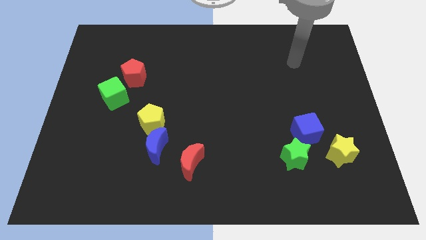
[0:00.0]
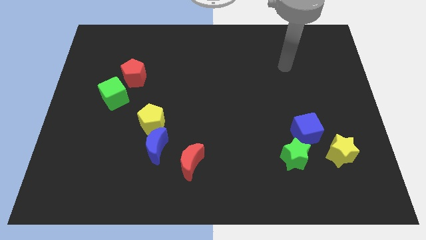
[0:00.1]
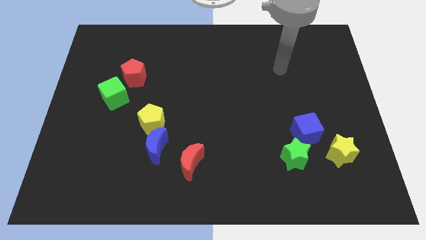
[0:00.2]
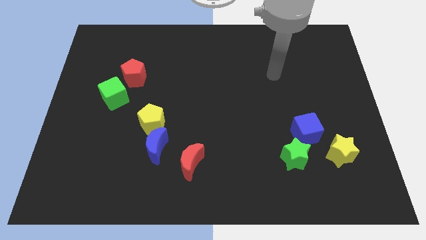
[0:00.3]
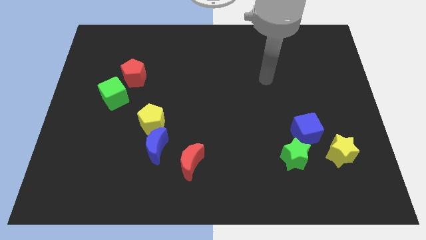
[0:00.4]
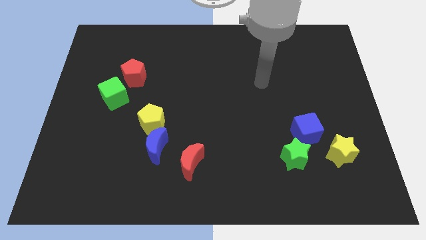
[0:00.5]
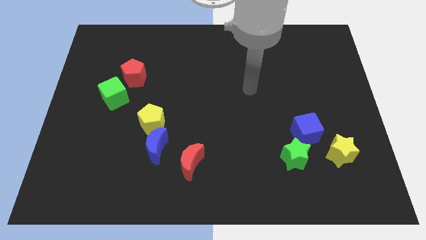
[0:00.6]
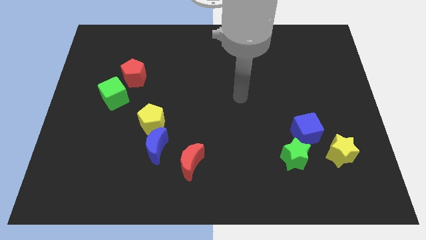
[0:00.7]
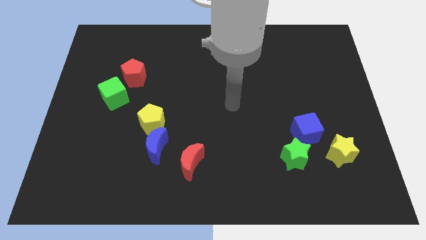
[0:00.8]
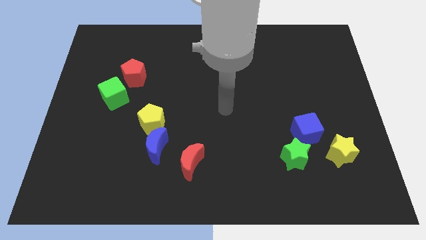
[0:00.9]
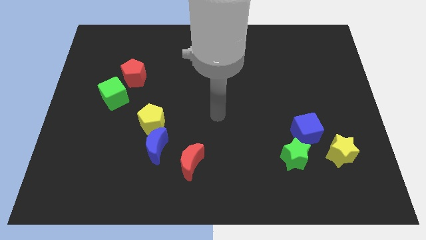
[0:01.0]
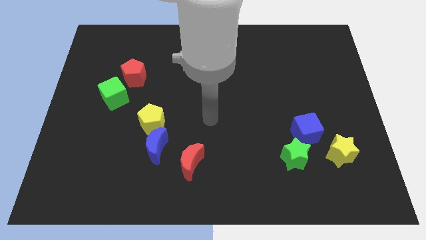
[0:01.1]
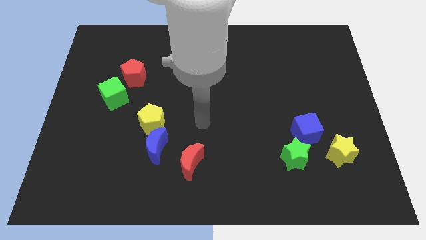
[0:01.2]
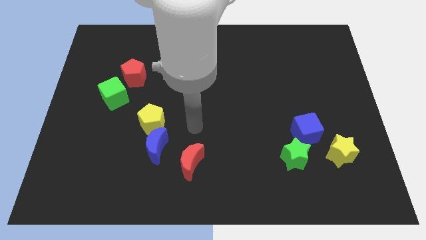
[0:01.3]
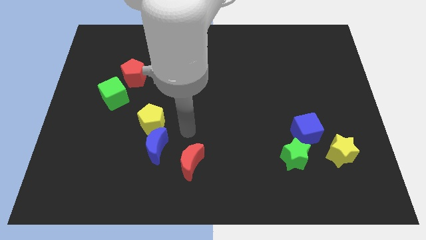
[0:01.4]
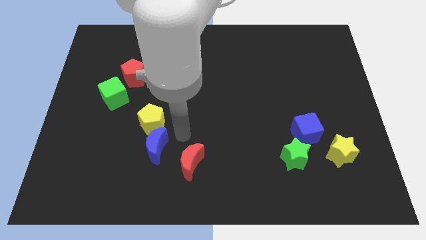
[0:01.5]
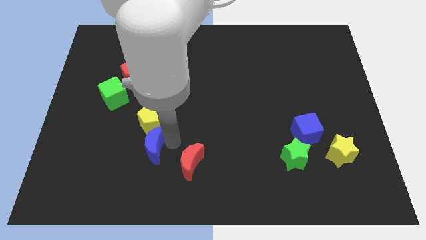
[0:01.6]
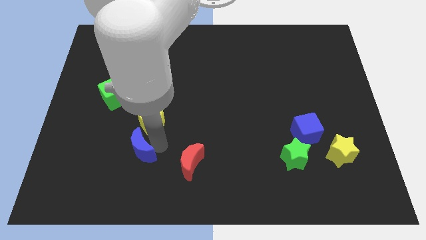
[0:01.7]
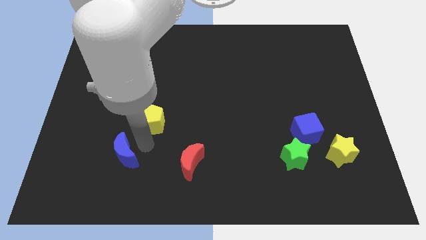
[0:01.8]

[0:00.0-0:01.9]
separate the yellow pentagon from the blue moon

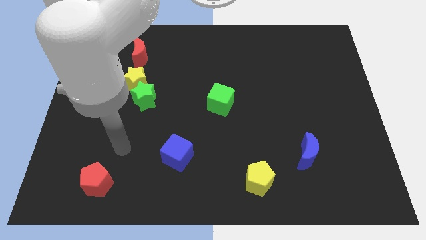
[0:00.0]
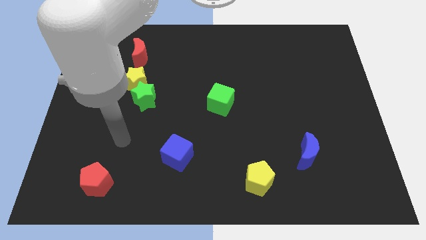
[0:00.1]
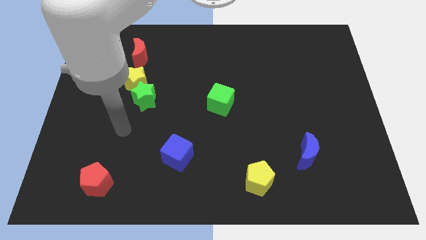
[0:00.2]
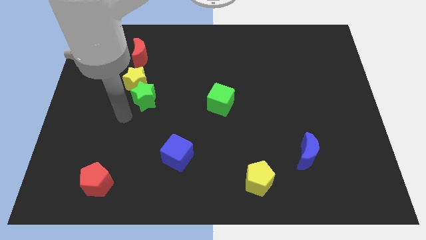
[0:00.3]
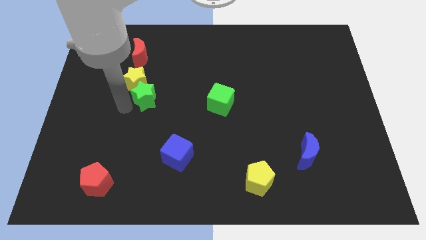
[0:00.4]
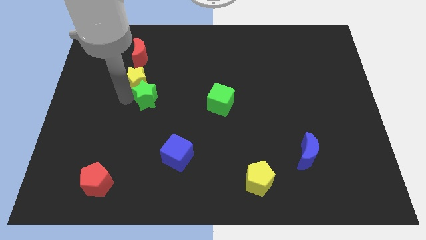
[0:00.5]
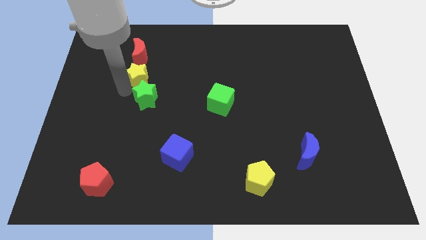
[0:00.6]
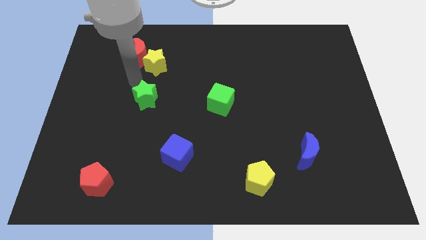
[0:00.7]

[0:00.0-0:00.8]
pull the green star apart from the yellow star

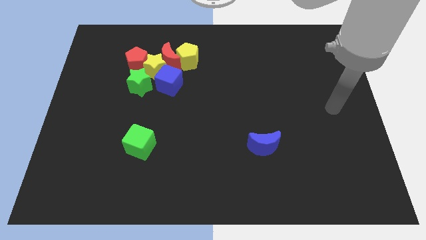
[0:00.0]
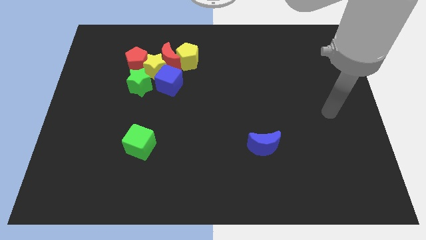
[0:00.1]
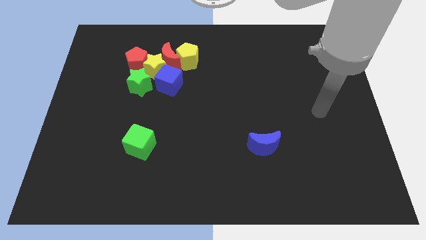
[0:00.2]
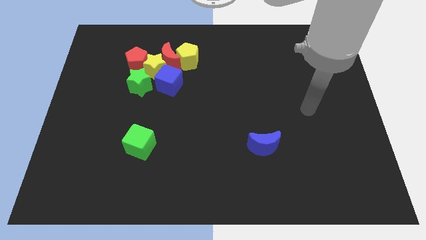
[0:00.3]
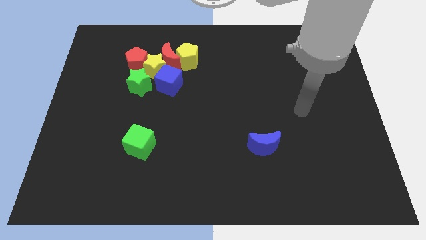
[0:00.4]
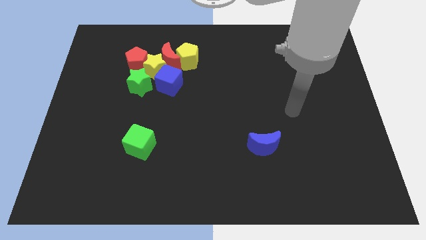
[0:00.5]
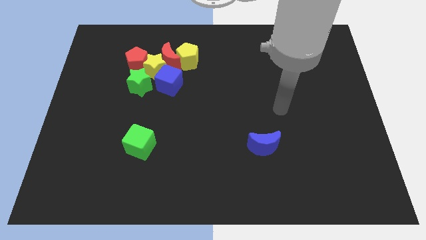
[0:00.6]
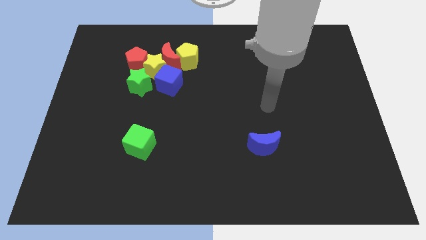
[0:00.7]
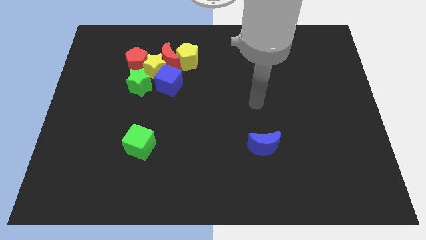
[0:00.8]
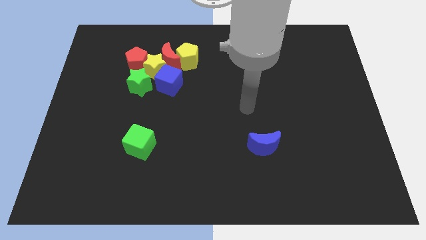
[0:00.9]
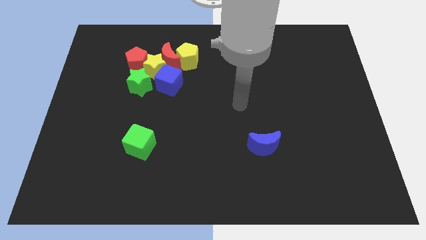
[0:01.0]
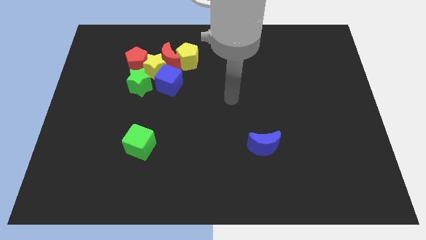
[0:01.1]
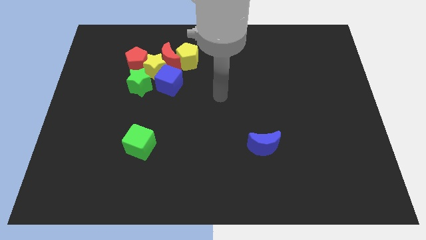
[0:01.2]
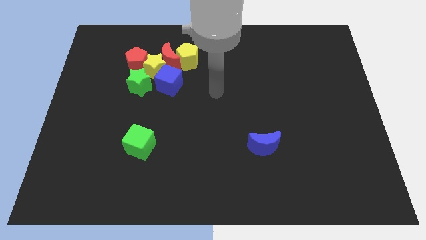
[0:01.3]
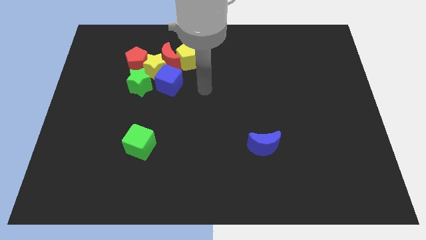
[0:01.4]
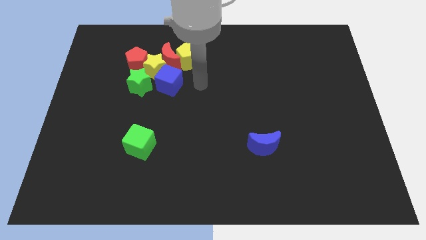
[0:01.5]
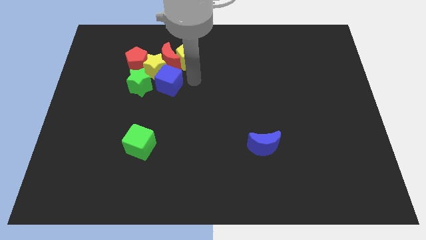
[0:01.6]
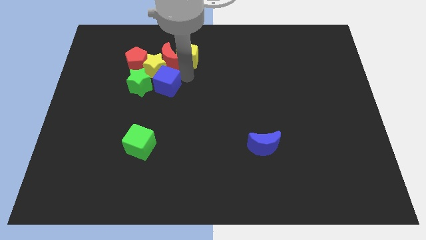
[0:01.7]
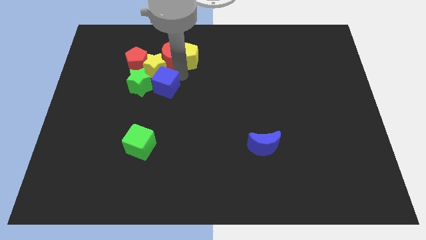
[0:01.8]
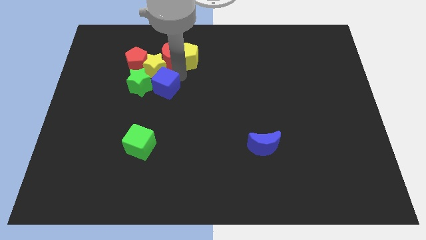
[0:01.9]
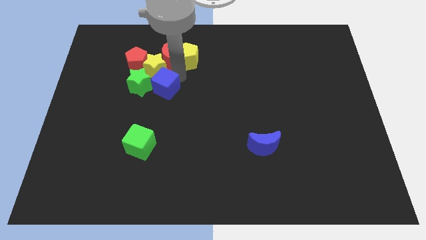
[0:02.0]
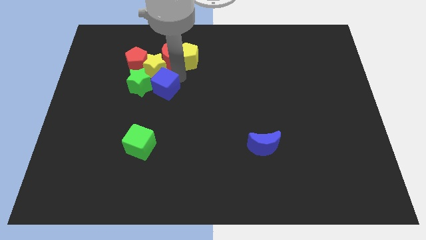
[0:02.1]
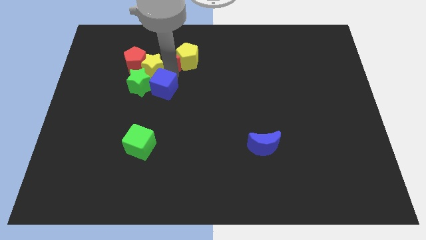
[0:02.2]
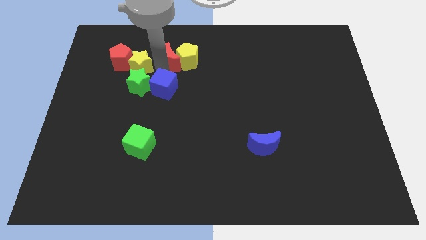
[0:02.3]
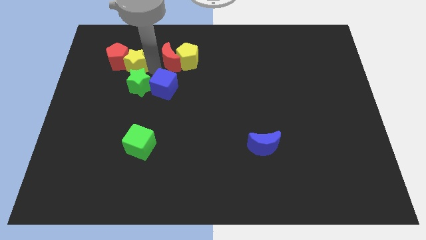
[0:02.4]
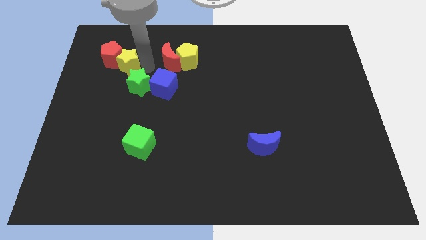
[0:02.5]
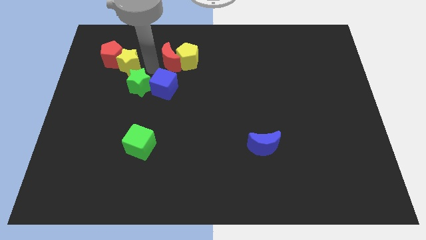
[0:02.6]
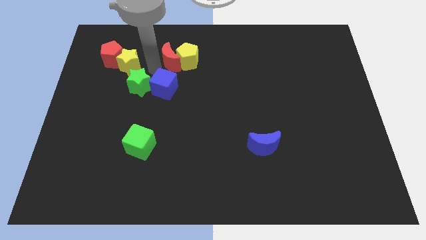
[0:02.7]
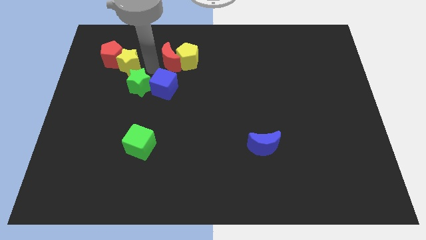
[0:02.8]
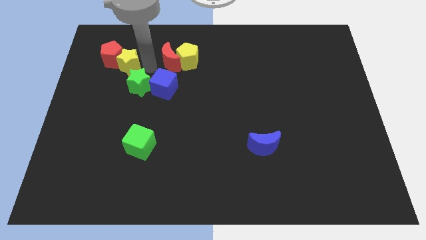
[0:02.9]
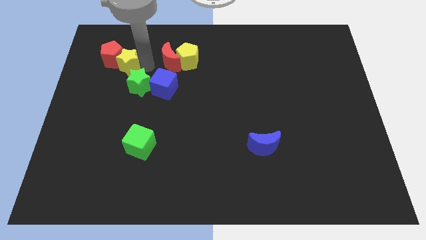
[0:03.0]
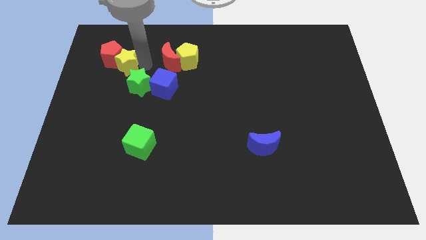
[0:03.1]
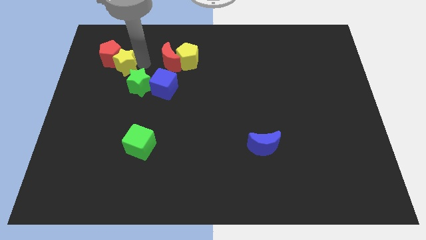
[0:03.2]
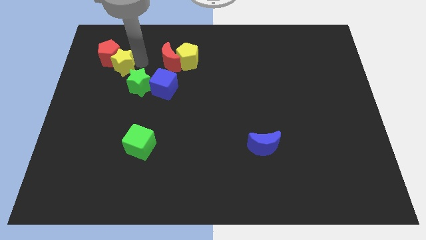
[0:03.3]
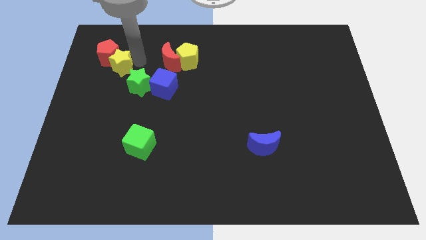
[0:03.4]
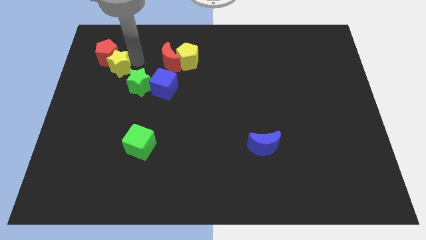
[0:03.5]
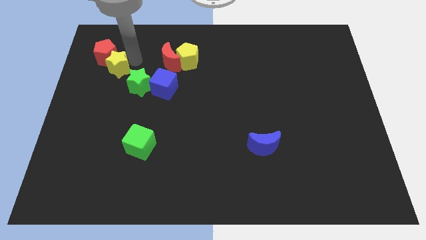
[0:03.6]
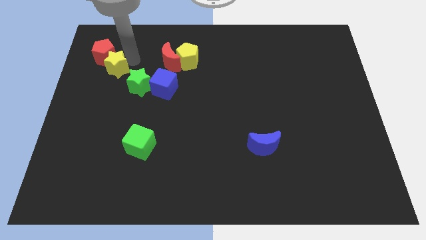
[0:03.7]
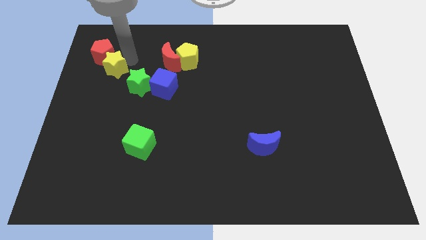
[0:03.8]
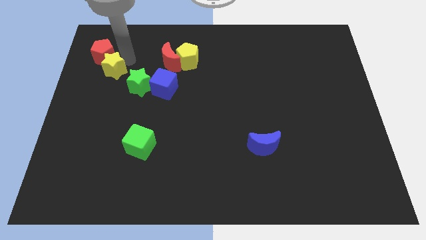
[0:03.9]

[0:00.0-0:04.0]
move the yellow star away from the group

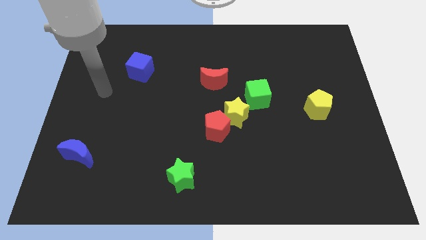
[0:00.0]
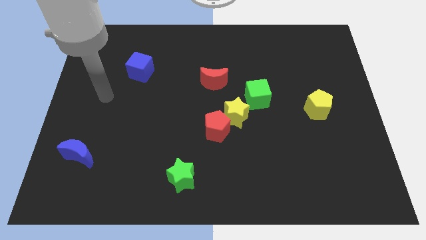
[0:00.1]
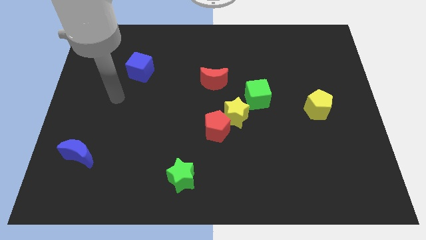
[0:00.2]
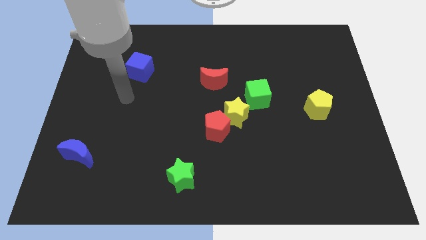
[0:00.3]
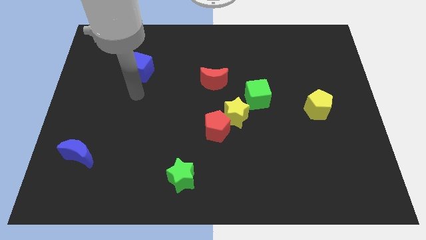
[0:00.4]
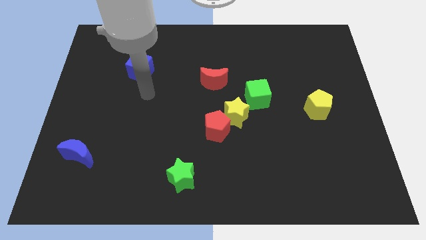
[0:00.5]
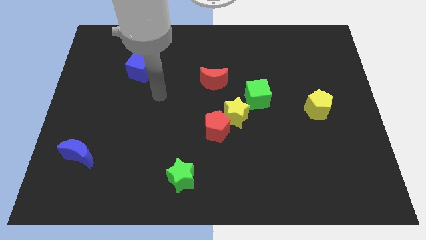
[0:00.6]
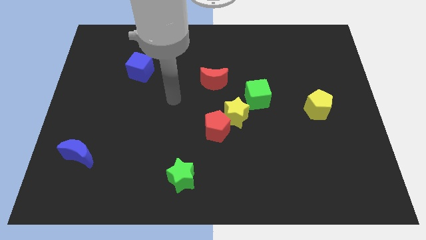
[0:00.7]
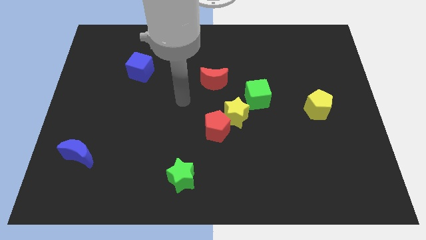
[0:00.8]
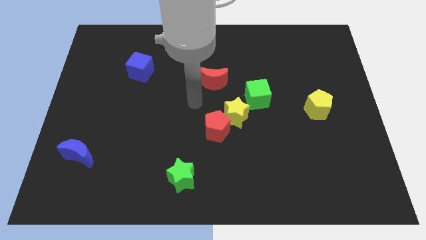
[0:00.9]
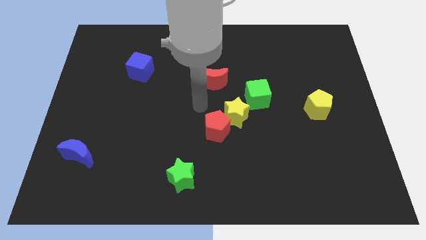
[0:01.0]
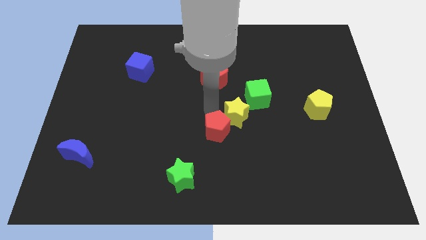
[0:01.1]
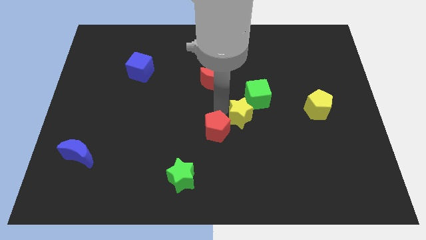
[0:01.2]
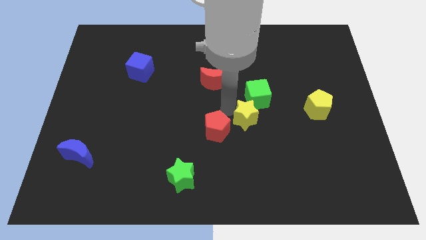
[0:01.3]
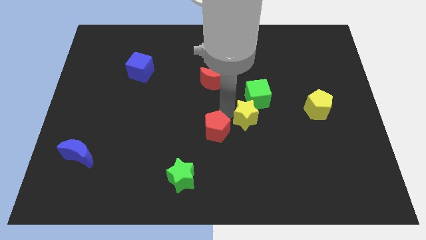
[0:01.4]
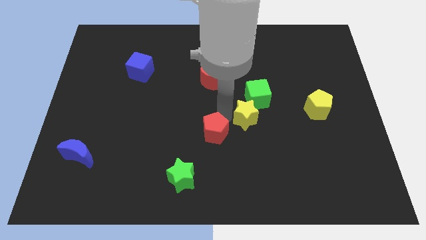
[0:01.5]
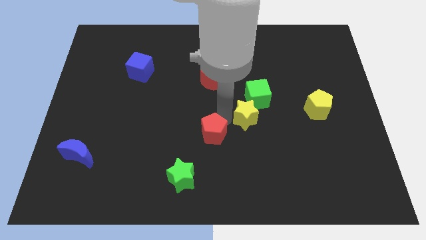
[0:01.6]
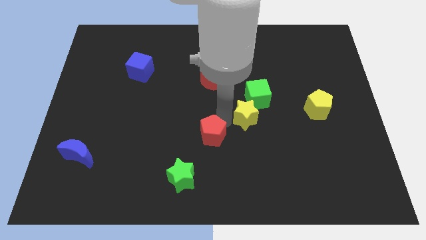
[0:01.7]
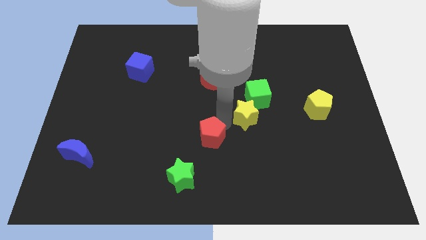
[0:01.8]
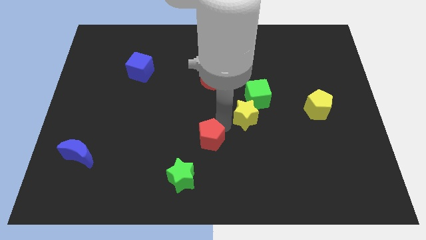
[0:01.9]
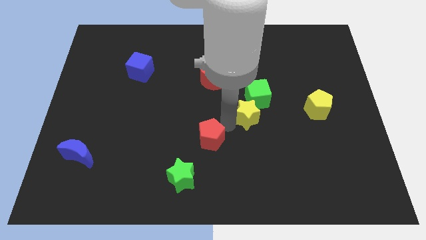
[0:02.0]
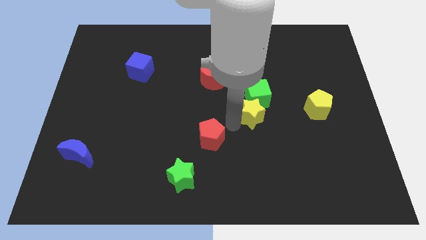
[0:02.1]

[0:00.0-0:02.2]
separate the red pentagon from the yellow star

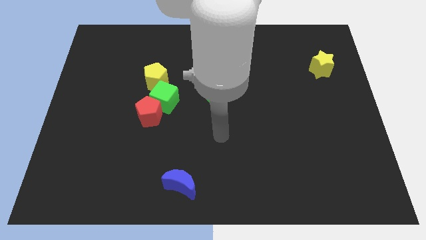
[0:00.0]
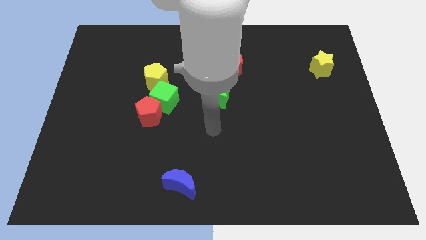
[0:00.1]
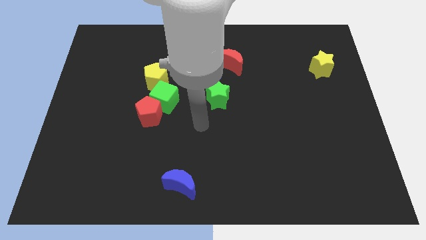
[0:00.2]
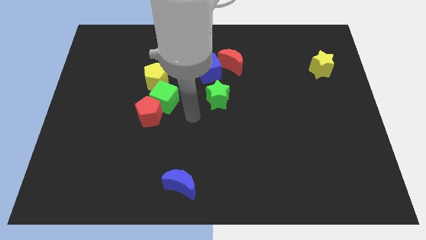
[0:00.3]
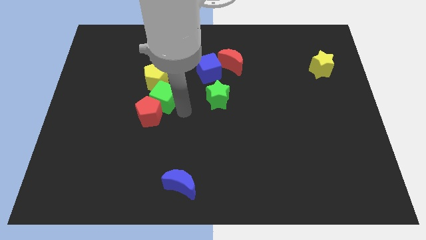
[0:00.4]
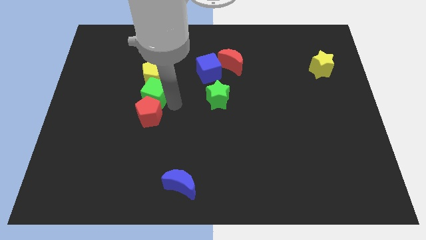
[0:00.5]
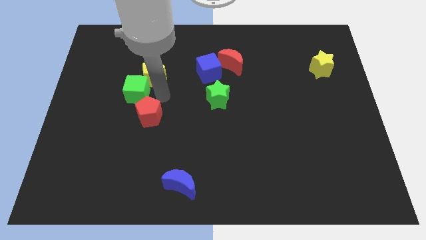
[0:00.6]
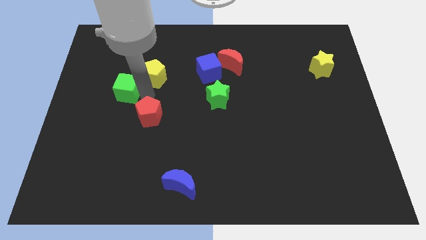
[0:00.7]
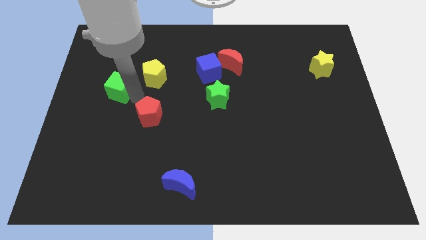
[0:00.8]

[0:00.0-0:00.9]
move the red pentagon away from the green cube
